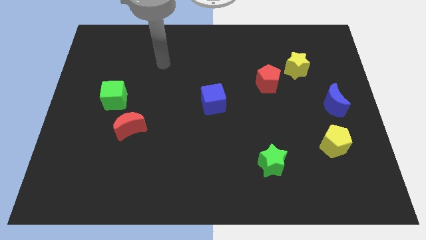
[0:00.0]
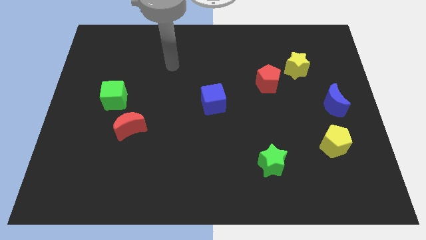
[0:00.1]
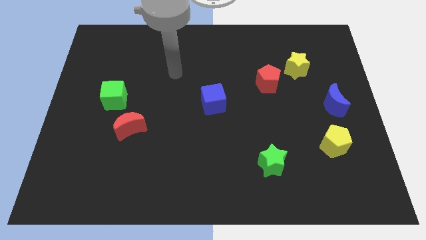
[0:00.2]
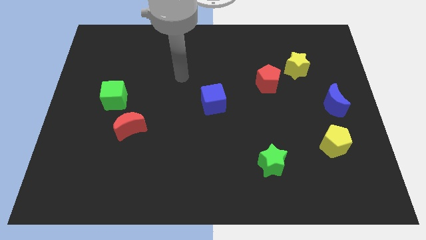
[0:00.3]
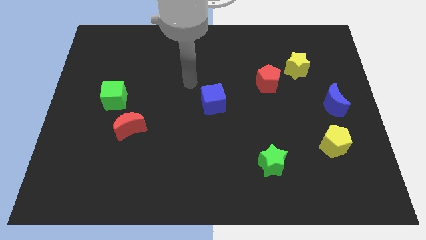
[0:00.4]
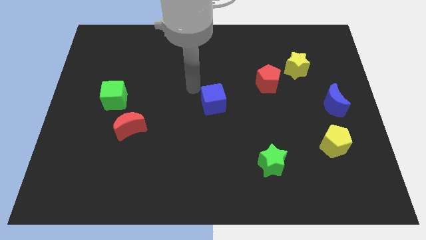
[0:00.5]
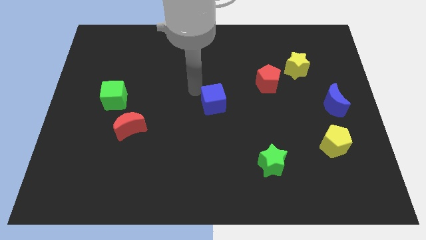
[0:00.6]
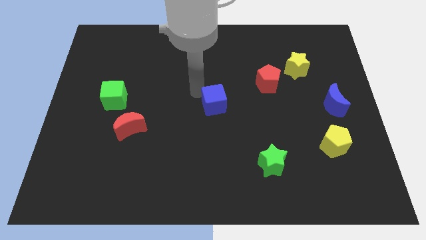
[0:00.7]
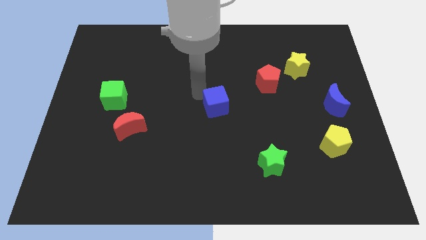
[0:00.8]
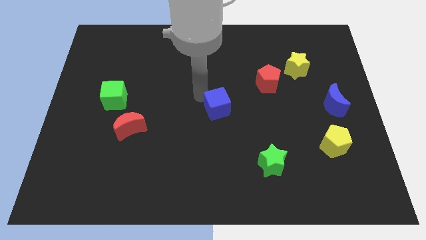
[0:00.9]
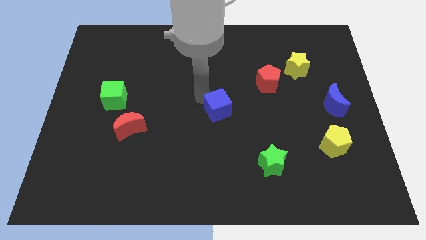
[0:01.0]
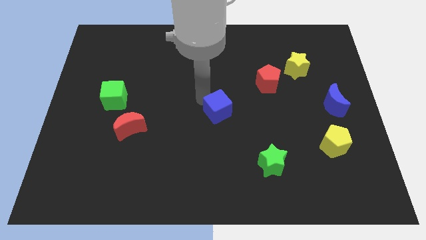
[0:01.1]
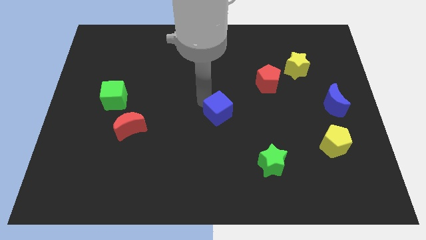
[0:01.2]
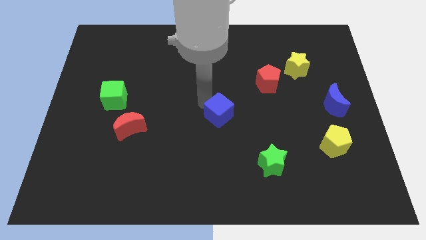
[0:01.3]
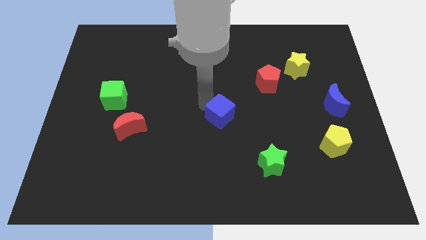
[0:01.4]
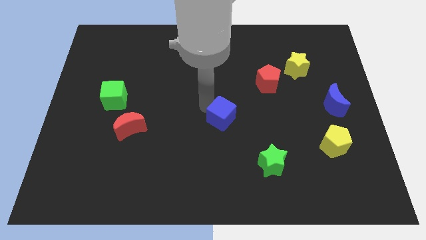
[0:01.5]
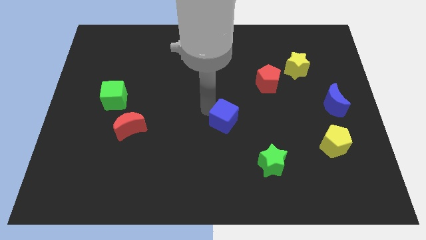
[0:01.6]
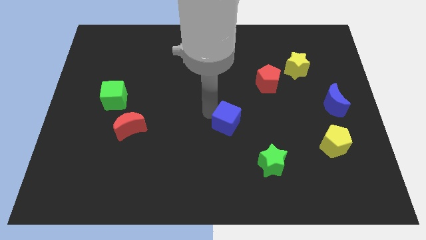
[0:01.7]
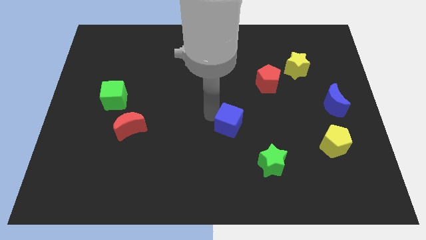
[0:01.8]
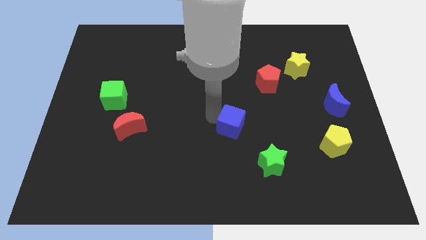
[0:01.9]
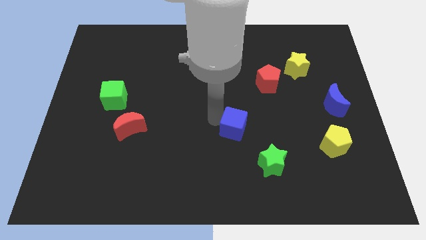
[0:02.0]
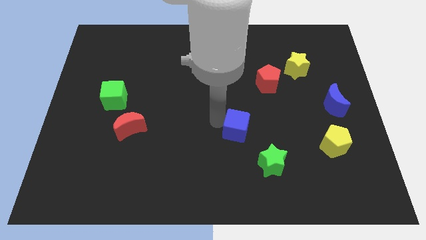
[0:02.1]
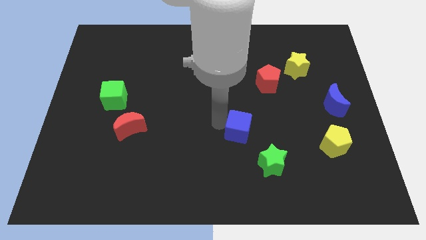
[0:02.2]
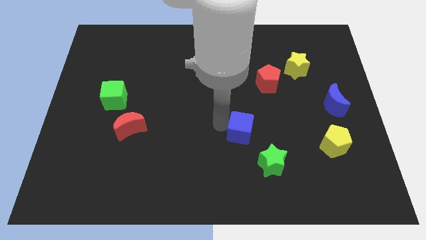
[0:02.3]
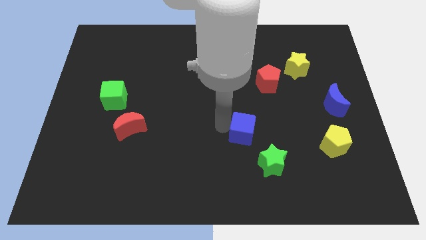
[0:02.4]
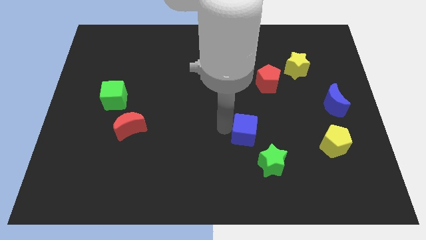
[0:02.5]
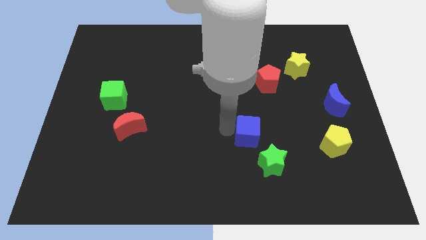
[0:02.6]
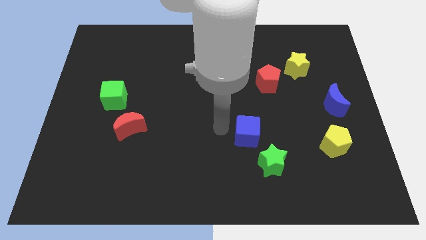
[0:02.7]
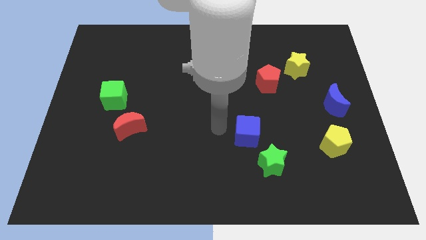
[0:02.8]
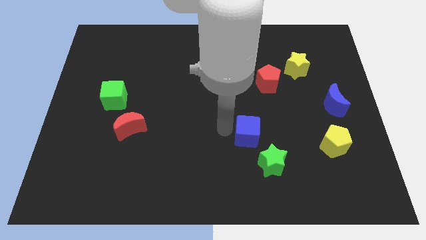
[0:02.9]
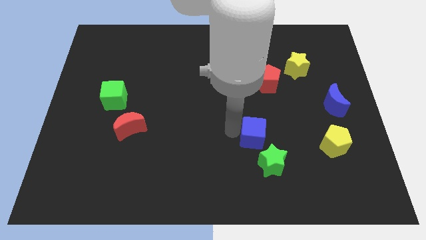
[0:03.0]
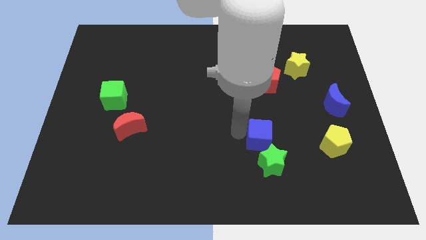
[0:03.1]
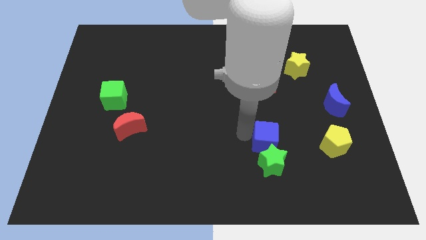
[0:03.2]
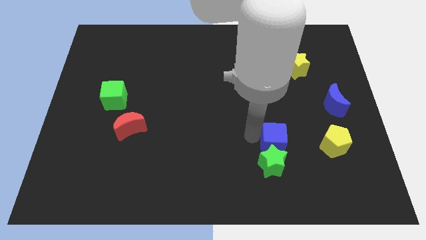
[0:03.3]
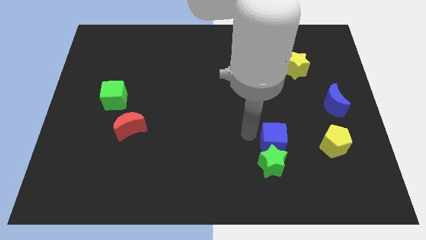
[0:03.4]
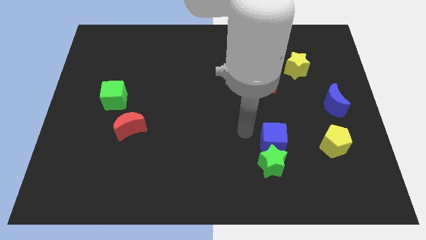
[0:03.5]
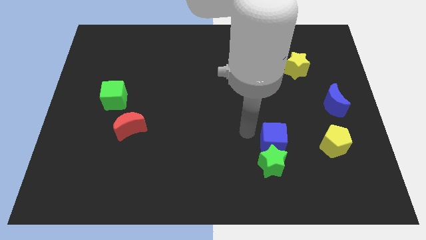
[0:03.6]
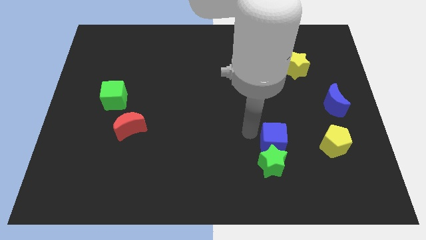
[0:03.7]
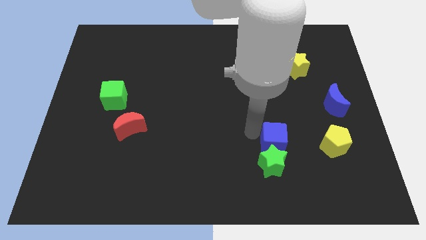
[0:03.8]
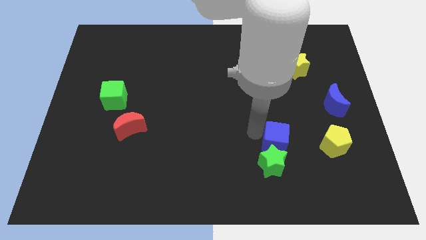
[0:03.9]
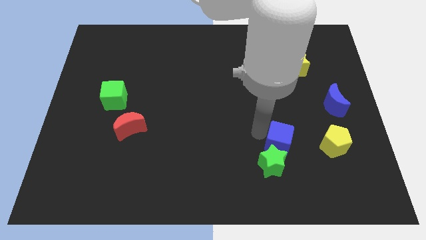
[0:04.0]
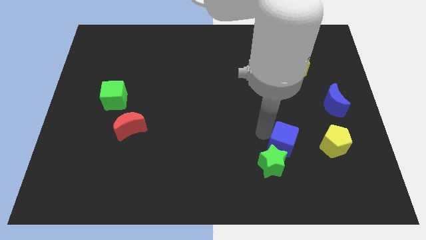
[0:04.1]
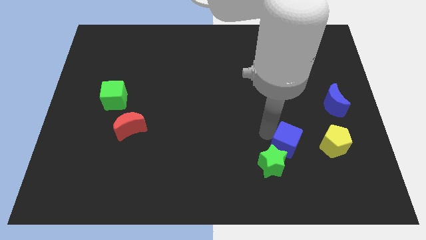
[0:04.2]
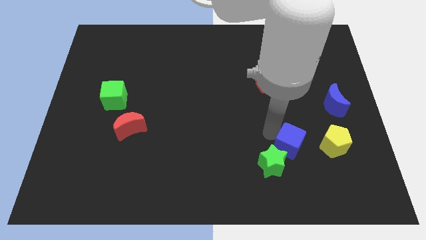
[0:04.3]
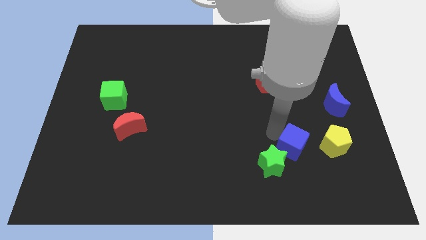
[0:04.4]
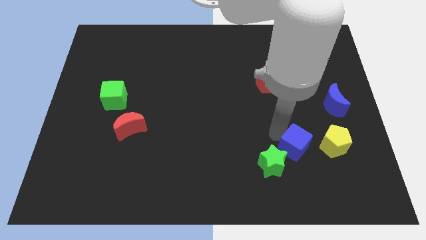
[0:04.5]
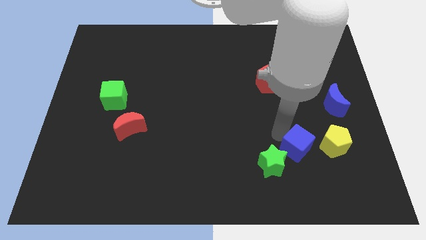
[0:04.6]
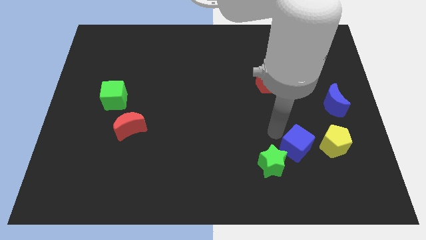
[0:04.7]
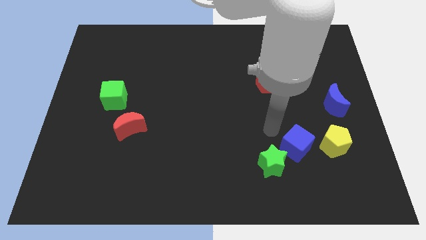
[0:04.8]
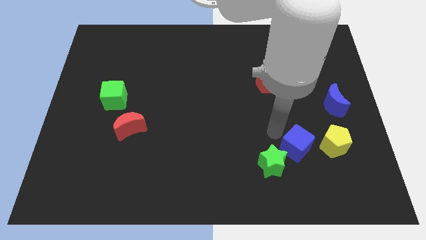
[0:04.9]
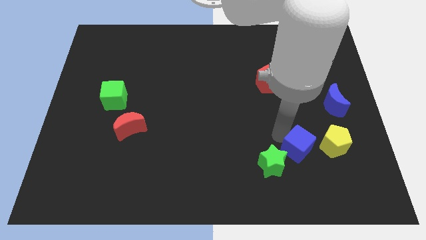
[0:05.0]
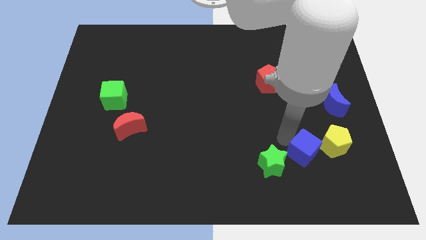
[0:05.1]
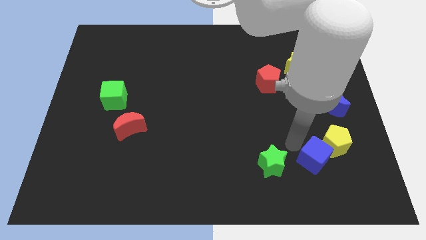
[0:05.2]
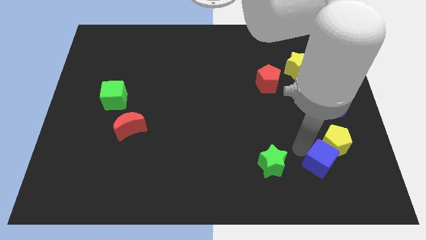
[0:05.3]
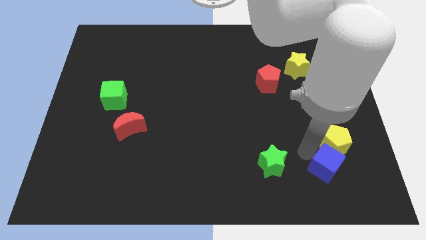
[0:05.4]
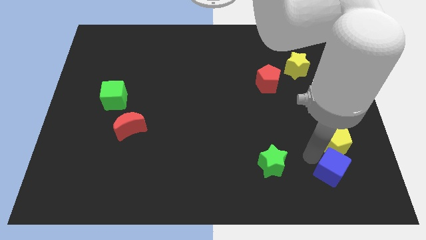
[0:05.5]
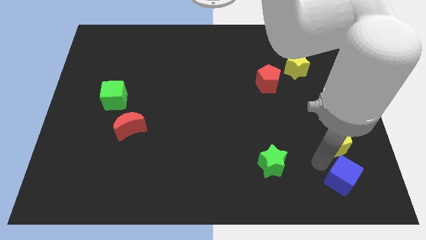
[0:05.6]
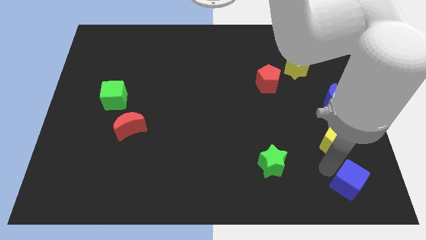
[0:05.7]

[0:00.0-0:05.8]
push the blue cube to the bottom right of the board
